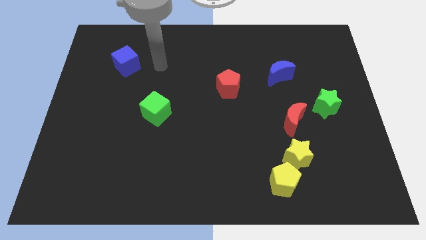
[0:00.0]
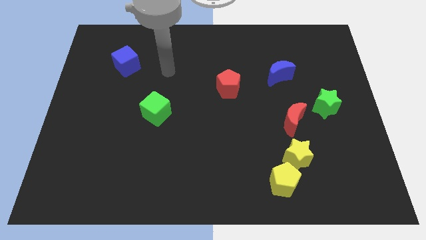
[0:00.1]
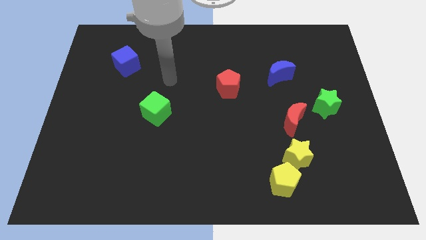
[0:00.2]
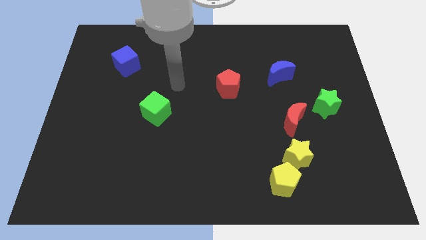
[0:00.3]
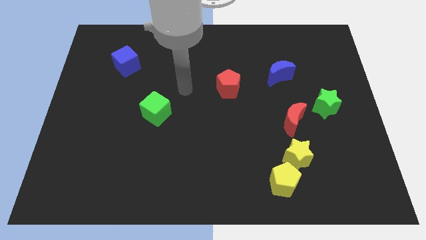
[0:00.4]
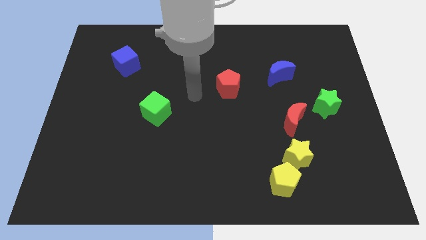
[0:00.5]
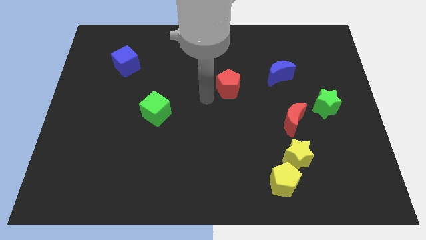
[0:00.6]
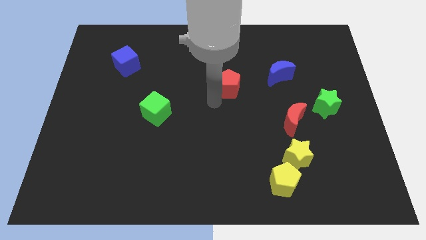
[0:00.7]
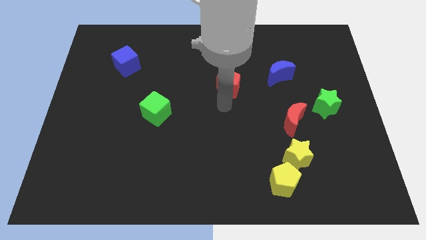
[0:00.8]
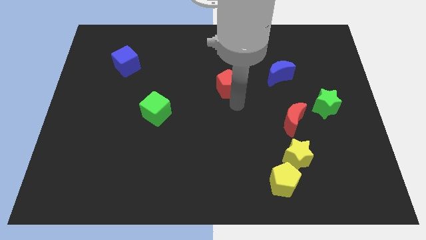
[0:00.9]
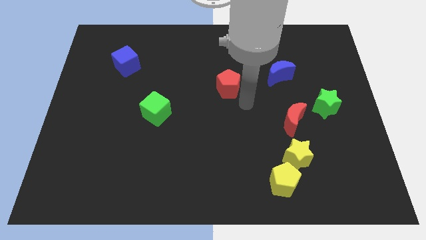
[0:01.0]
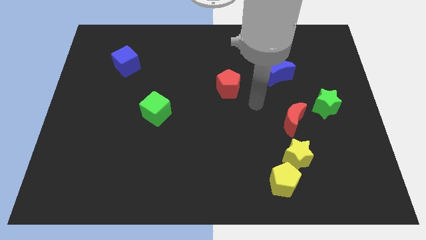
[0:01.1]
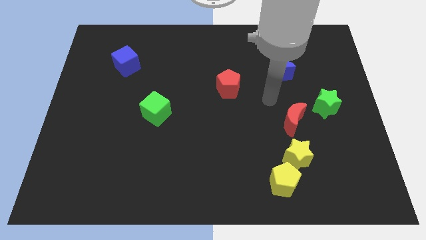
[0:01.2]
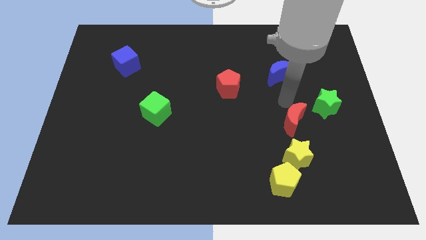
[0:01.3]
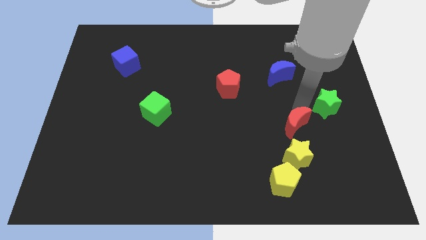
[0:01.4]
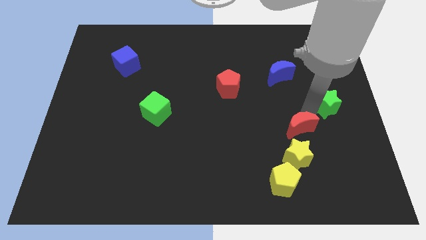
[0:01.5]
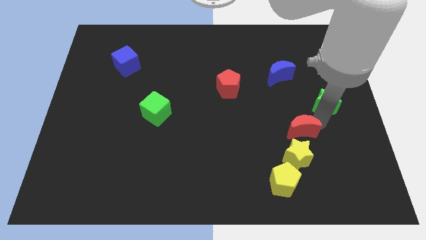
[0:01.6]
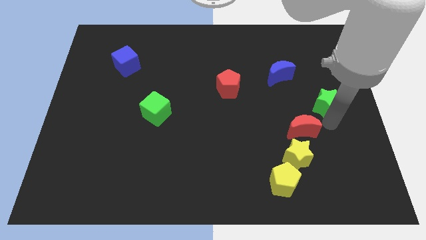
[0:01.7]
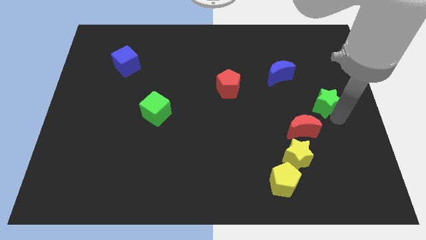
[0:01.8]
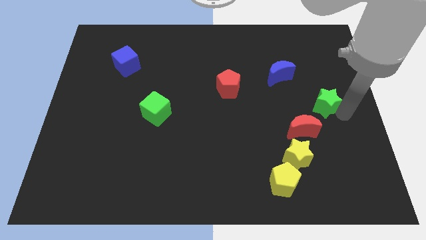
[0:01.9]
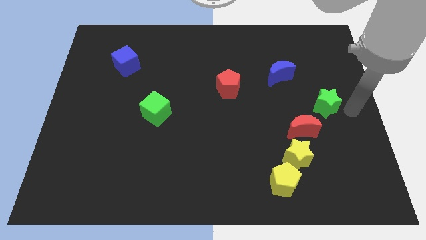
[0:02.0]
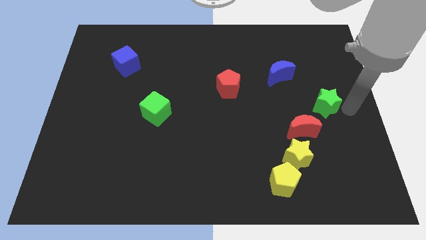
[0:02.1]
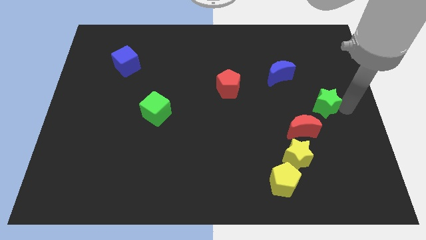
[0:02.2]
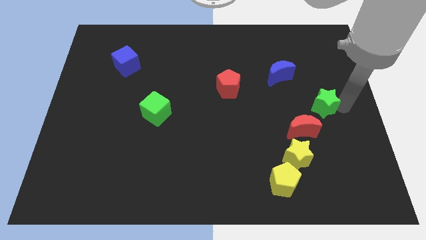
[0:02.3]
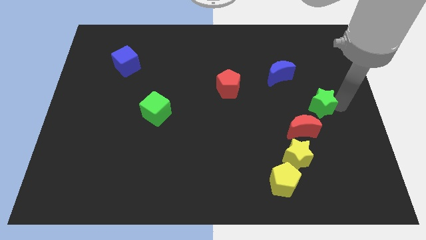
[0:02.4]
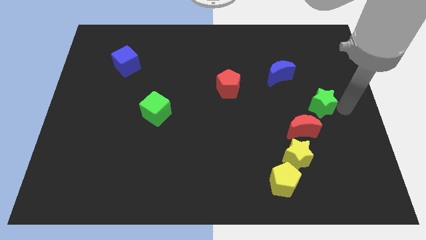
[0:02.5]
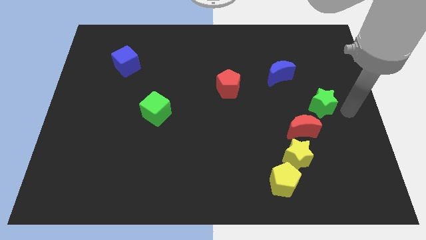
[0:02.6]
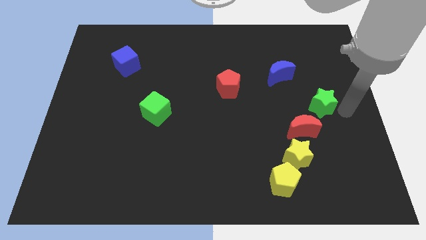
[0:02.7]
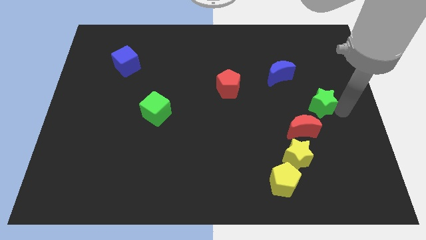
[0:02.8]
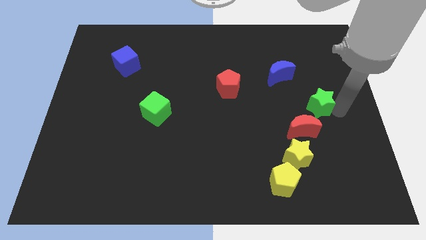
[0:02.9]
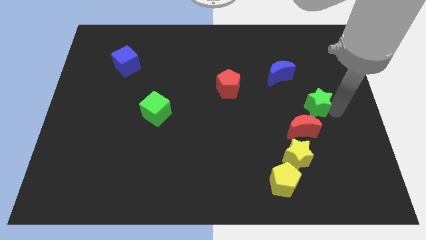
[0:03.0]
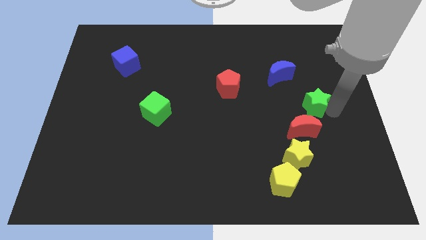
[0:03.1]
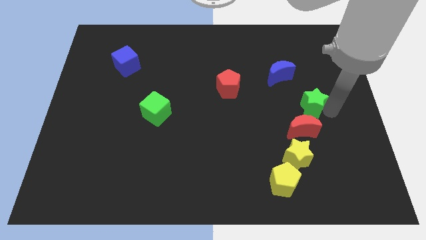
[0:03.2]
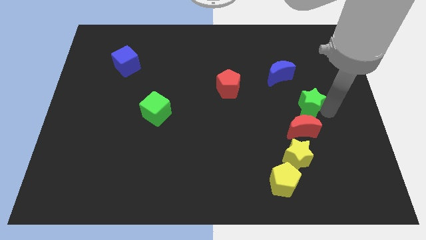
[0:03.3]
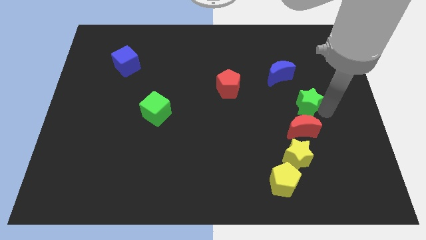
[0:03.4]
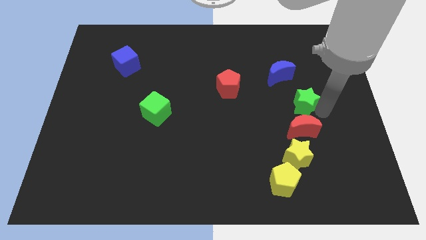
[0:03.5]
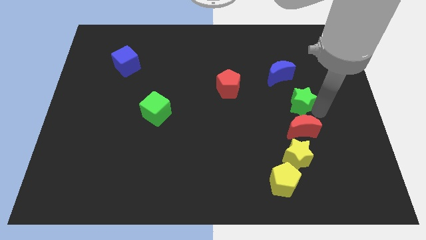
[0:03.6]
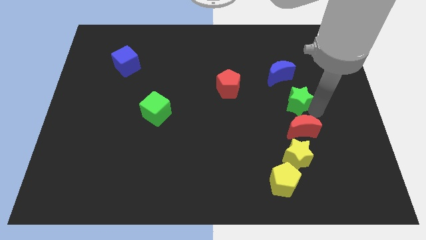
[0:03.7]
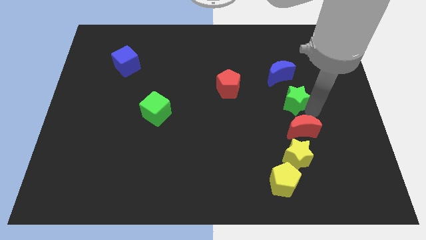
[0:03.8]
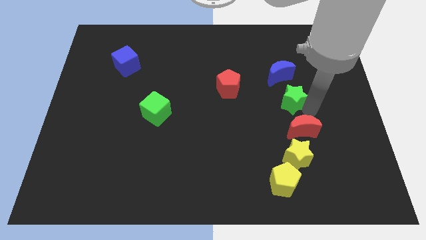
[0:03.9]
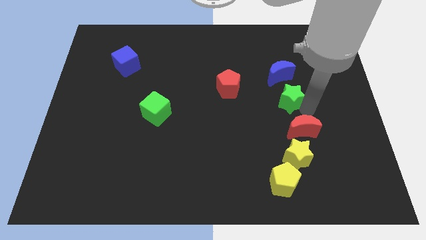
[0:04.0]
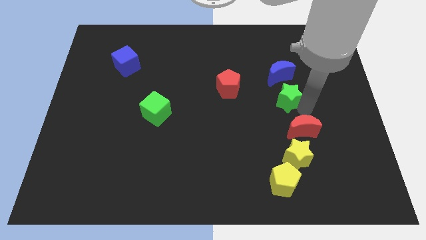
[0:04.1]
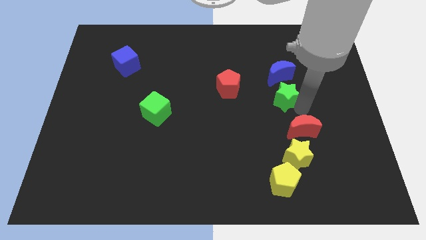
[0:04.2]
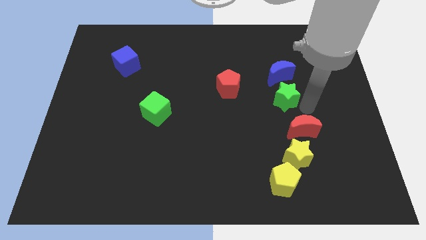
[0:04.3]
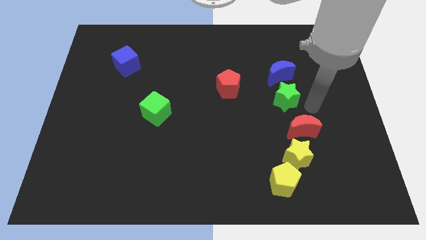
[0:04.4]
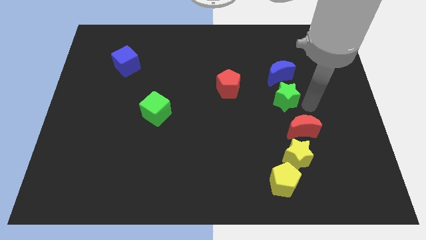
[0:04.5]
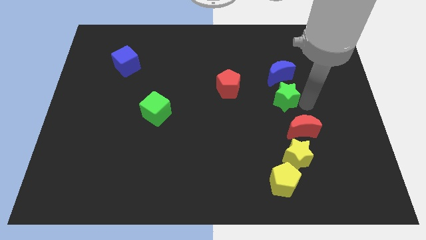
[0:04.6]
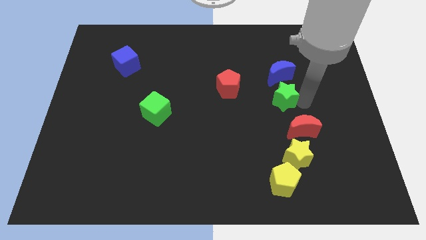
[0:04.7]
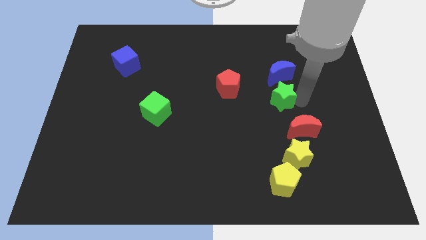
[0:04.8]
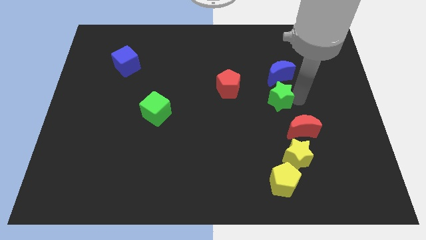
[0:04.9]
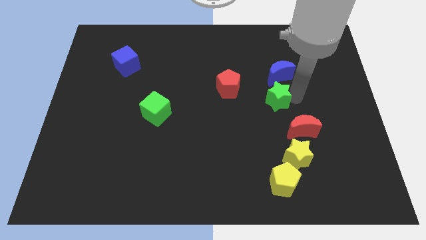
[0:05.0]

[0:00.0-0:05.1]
move the green star diagonally down and to the left of the blue moon

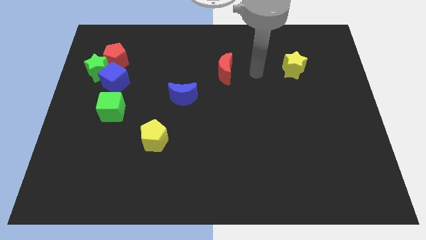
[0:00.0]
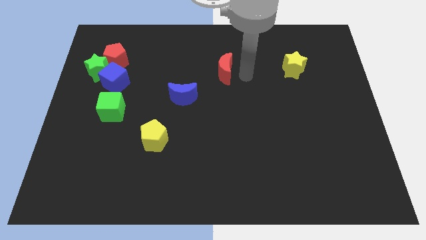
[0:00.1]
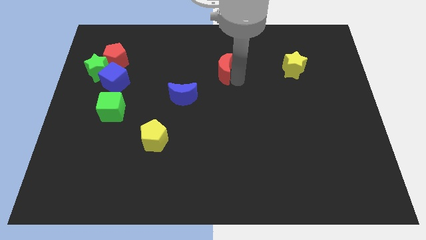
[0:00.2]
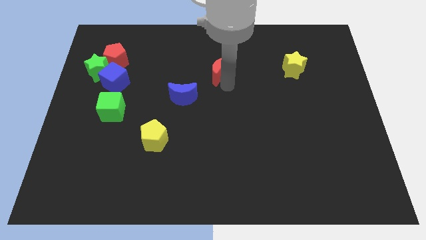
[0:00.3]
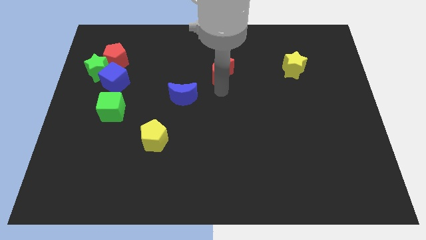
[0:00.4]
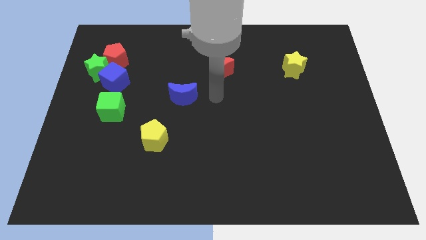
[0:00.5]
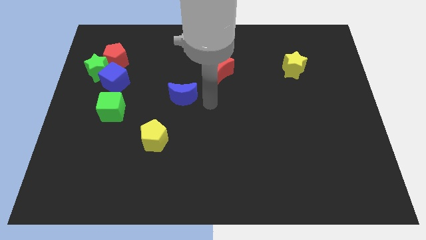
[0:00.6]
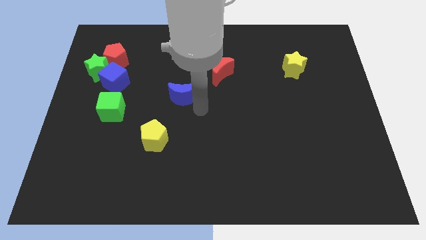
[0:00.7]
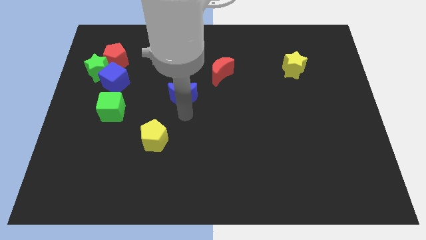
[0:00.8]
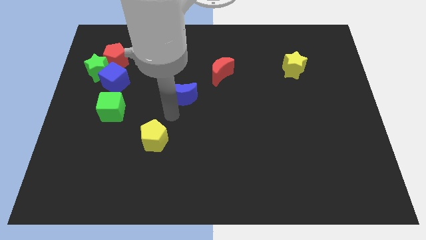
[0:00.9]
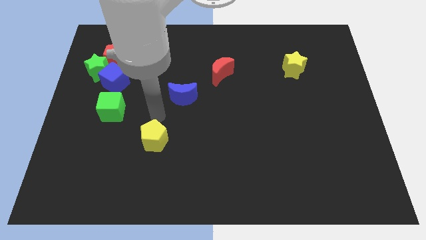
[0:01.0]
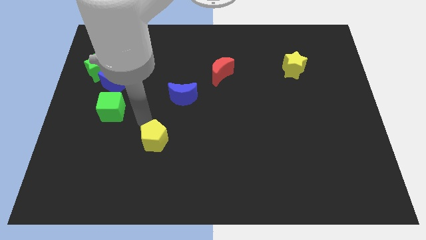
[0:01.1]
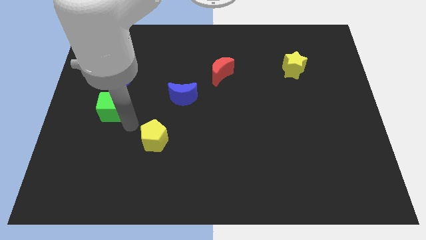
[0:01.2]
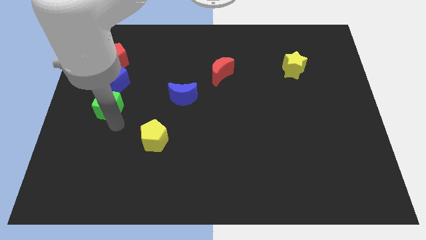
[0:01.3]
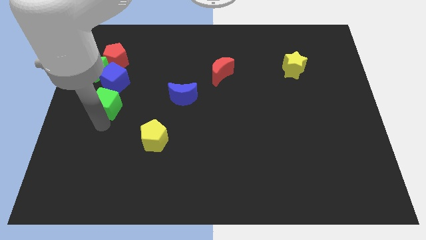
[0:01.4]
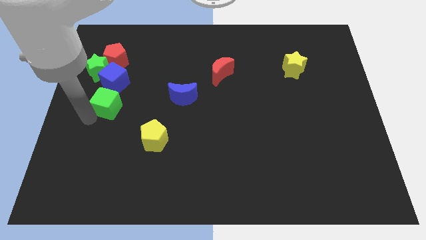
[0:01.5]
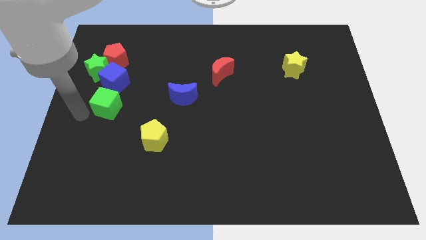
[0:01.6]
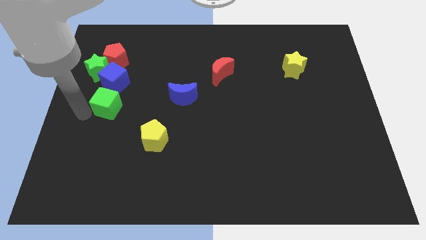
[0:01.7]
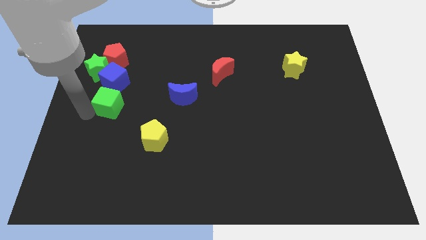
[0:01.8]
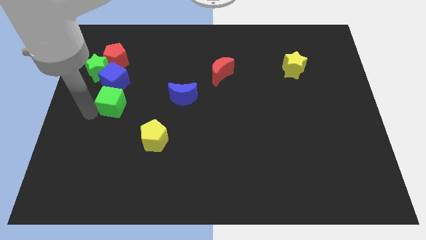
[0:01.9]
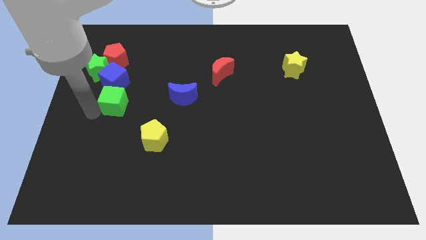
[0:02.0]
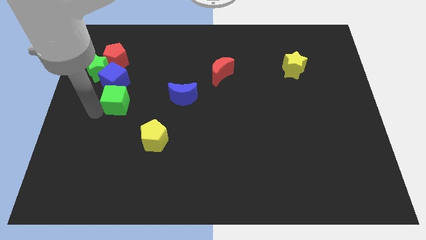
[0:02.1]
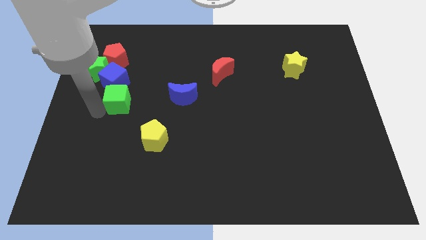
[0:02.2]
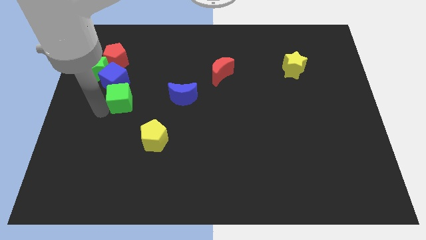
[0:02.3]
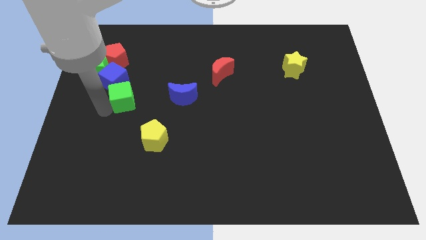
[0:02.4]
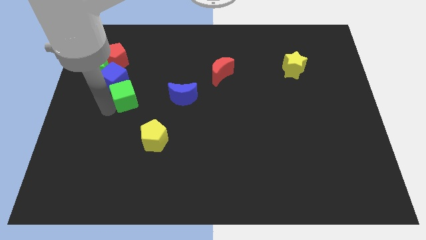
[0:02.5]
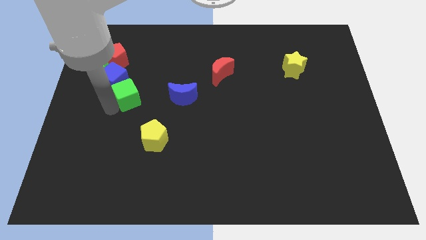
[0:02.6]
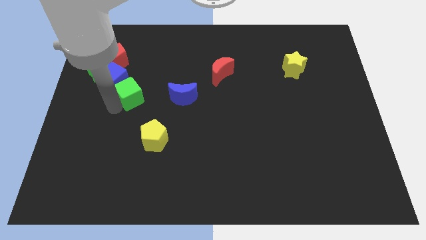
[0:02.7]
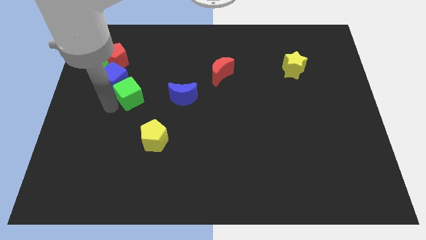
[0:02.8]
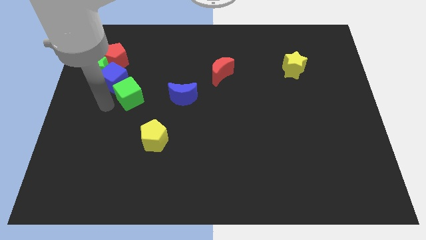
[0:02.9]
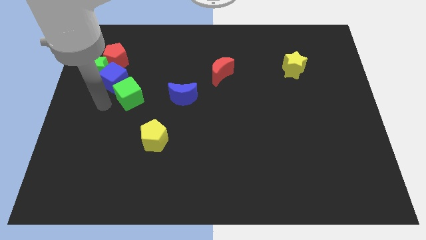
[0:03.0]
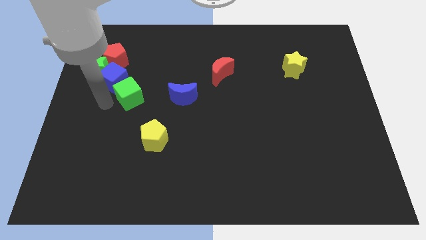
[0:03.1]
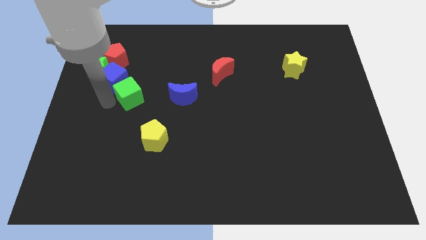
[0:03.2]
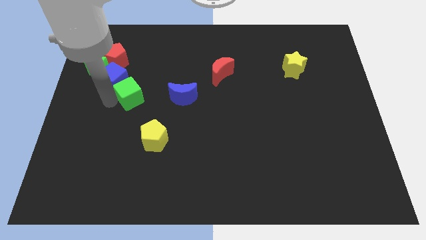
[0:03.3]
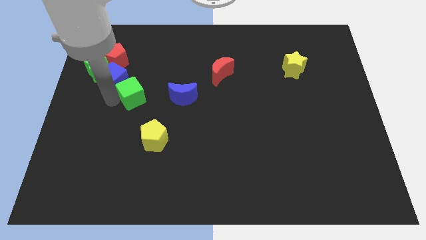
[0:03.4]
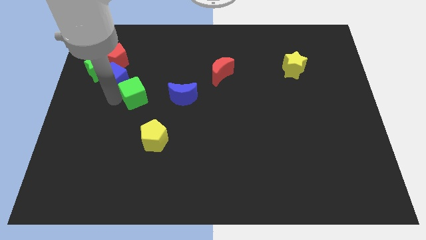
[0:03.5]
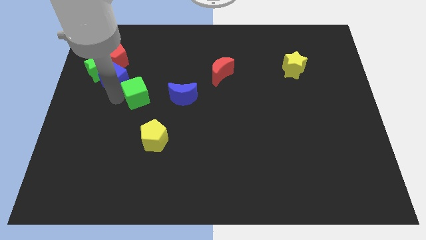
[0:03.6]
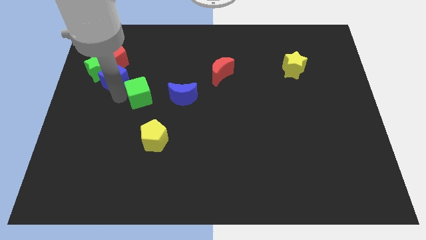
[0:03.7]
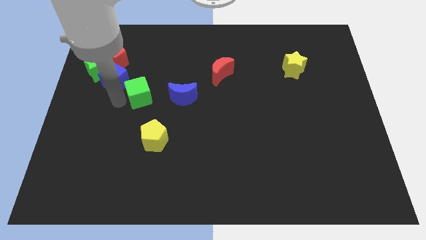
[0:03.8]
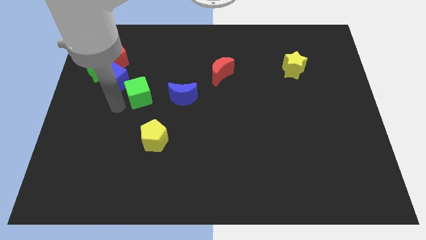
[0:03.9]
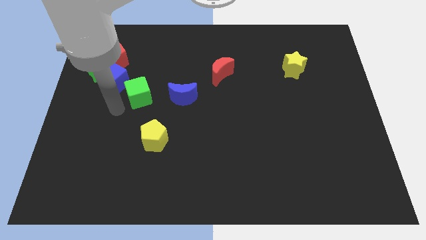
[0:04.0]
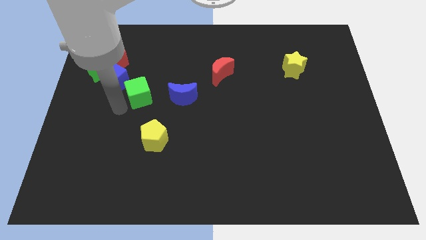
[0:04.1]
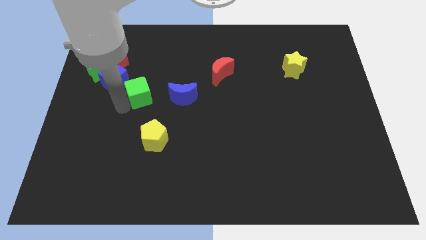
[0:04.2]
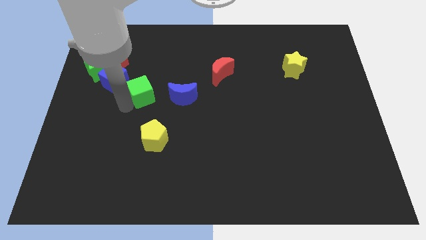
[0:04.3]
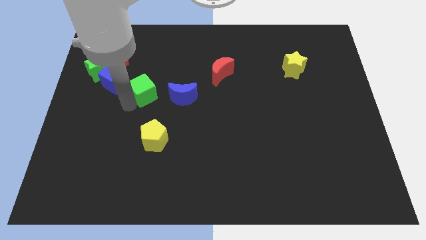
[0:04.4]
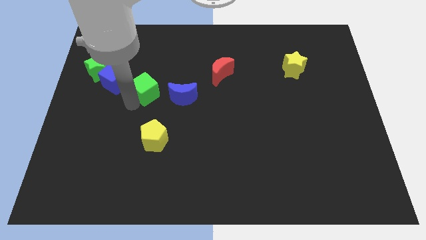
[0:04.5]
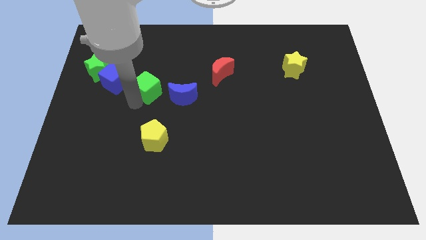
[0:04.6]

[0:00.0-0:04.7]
slide the green cube to the top left of the blue moon
